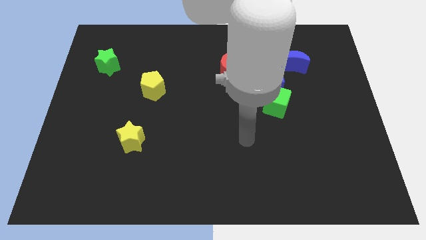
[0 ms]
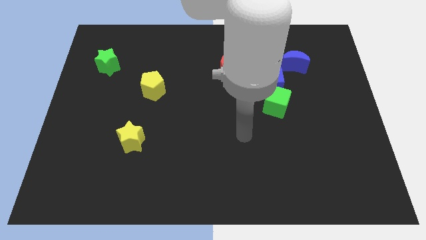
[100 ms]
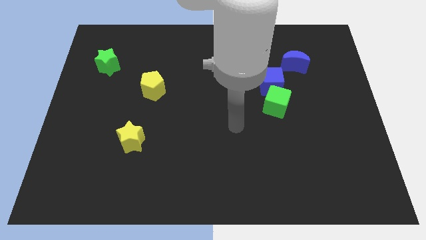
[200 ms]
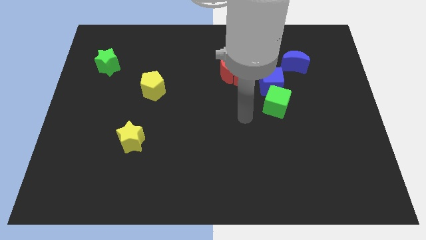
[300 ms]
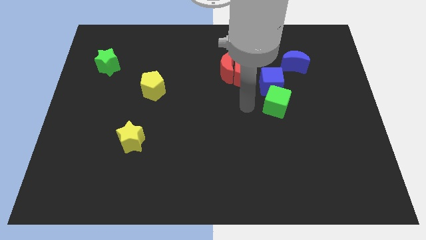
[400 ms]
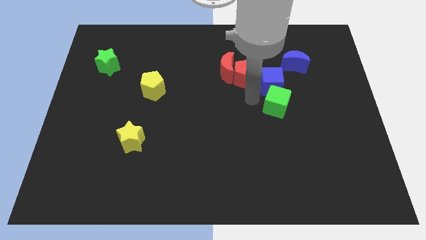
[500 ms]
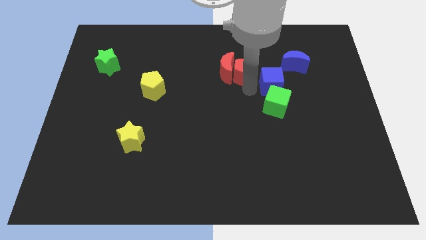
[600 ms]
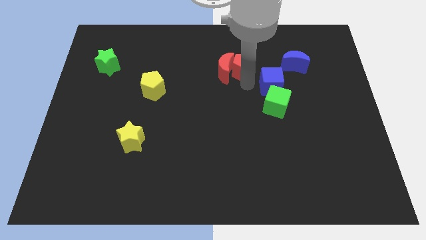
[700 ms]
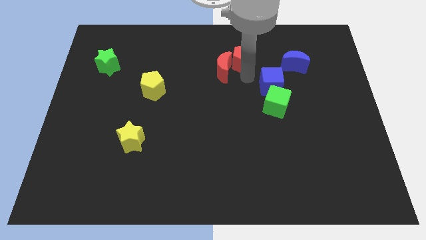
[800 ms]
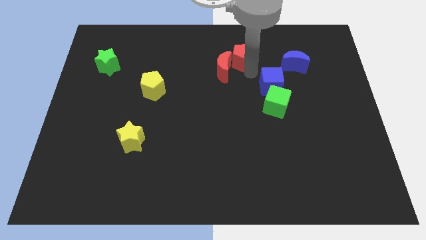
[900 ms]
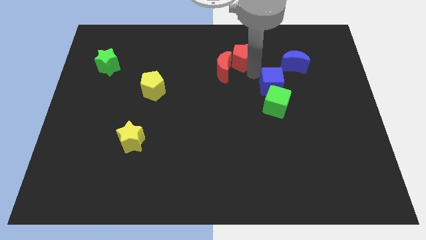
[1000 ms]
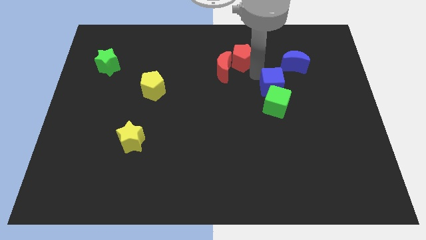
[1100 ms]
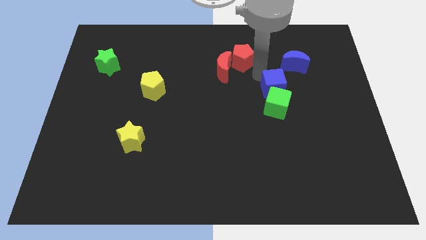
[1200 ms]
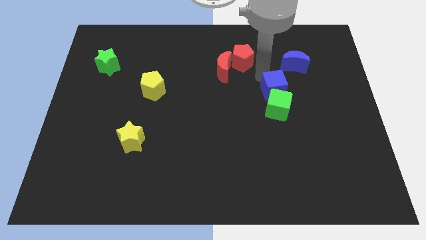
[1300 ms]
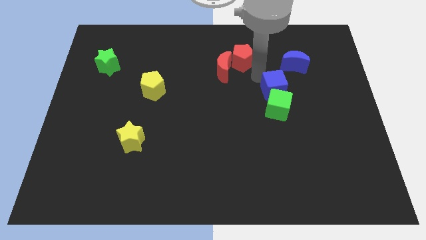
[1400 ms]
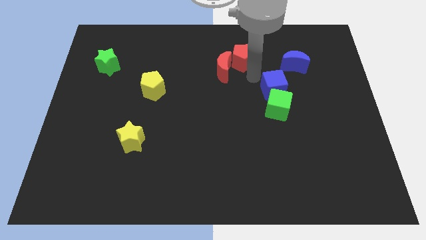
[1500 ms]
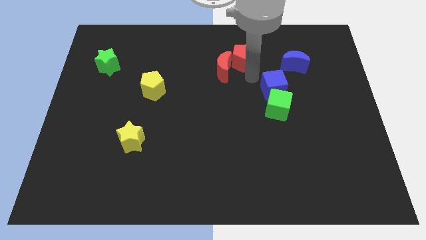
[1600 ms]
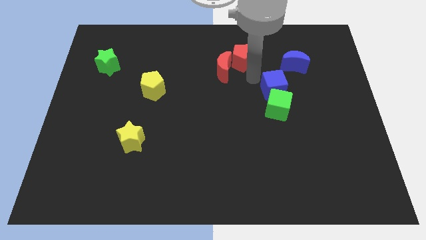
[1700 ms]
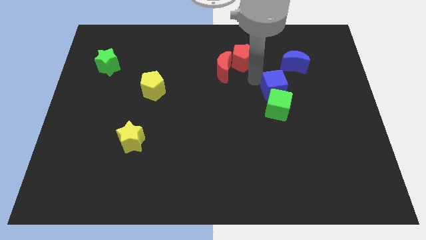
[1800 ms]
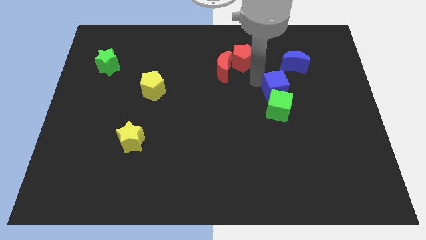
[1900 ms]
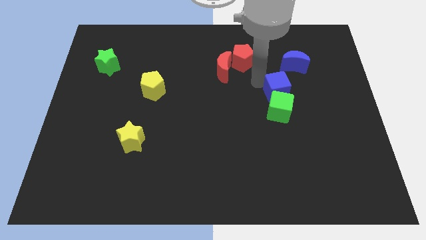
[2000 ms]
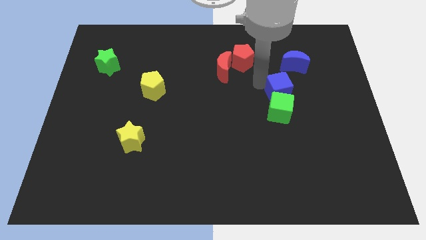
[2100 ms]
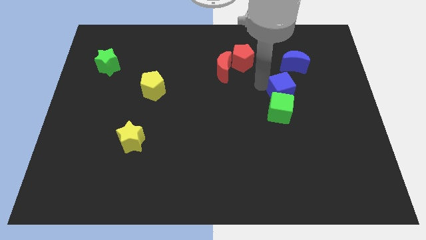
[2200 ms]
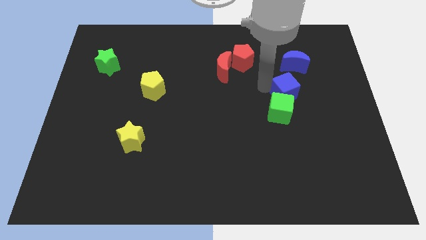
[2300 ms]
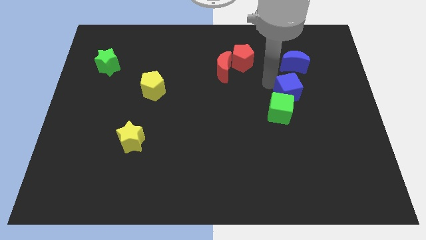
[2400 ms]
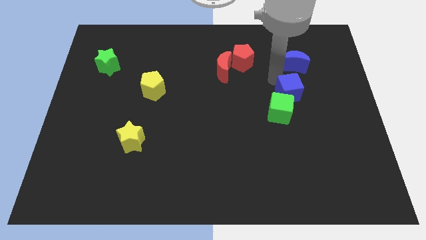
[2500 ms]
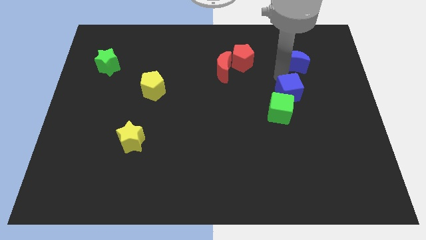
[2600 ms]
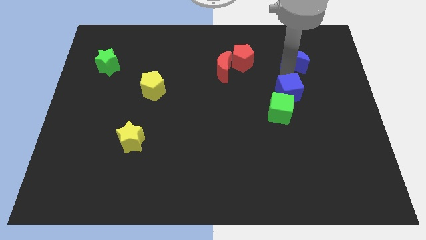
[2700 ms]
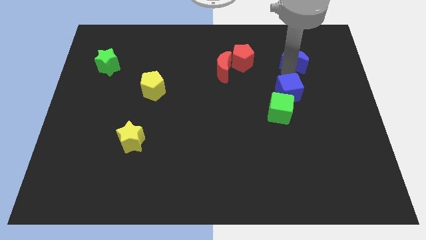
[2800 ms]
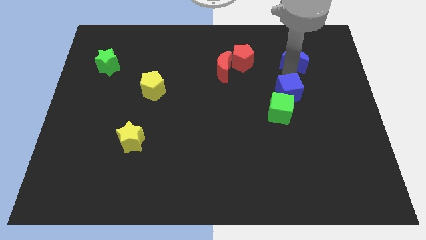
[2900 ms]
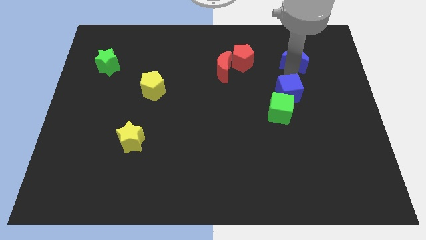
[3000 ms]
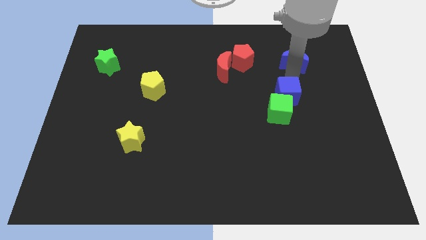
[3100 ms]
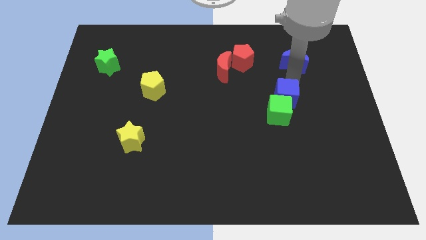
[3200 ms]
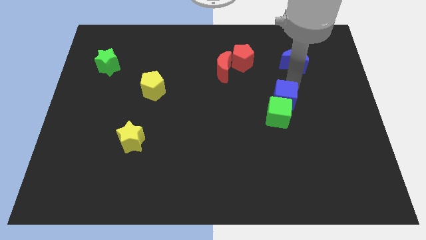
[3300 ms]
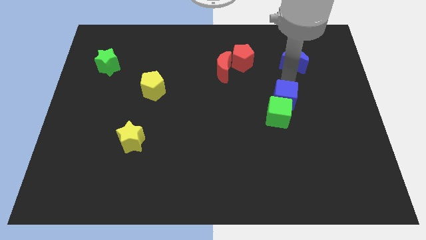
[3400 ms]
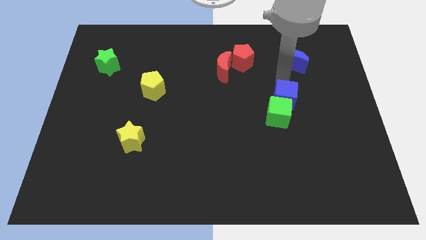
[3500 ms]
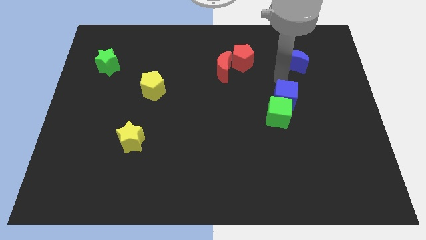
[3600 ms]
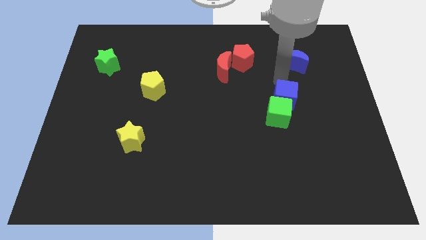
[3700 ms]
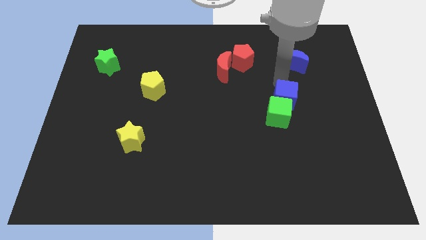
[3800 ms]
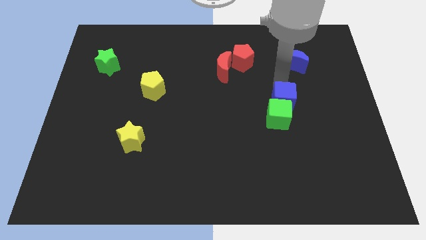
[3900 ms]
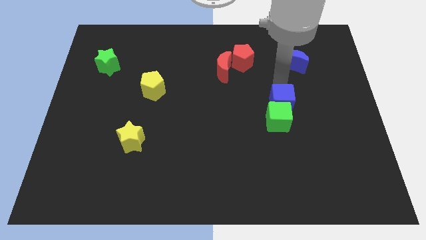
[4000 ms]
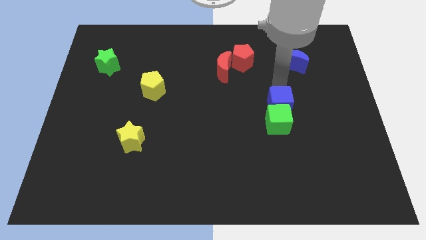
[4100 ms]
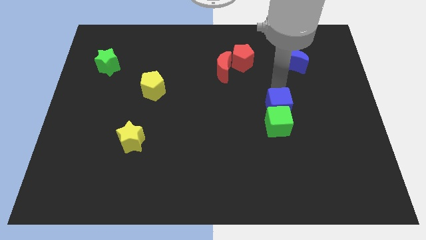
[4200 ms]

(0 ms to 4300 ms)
slide the blue cube somewhat down

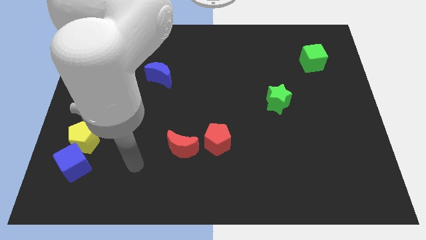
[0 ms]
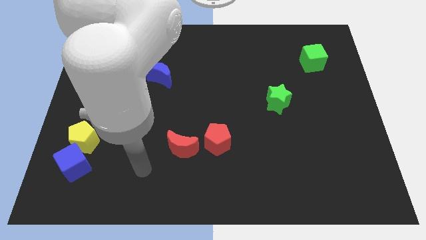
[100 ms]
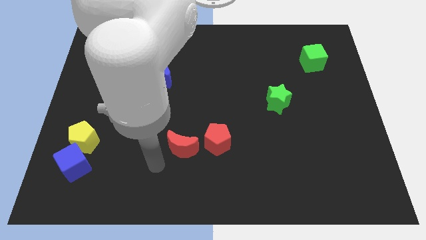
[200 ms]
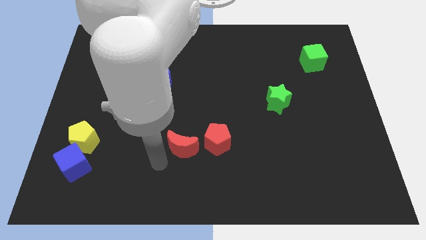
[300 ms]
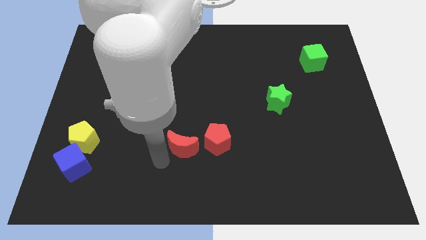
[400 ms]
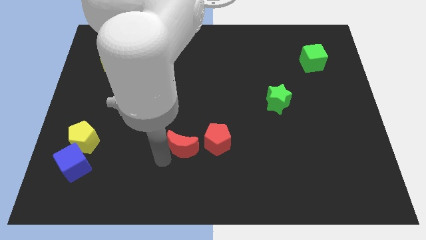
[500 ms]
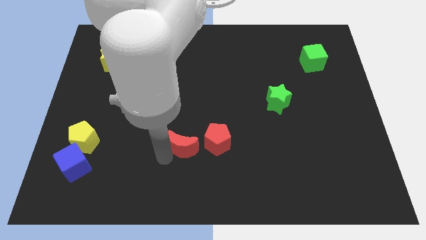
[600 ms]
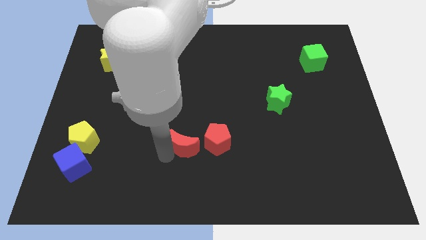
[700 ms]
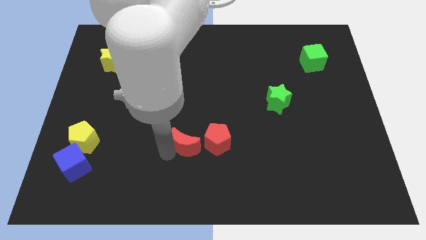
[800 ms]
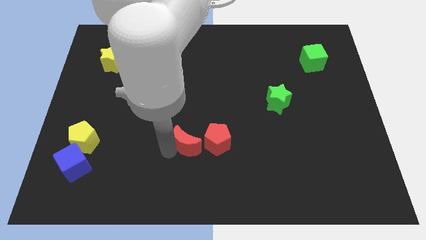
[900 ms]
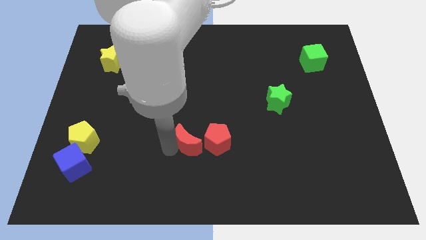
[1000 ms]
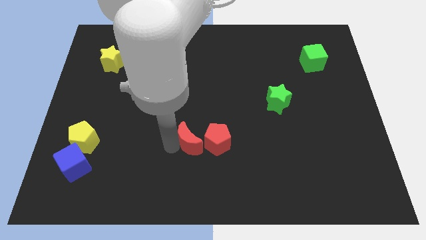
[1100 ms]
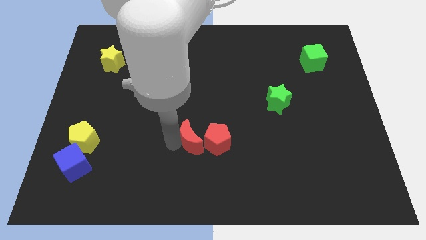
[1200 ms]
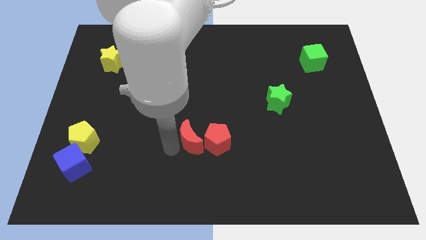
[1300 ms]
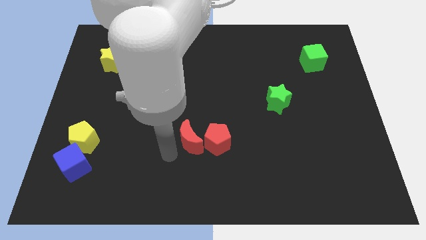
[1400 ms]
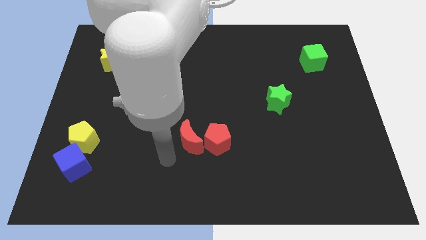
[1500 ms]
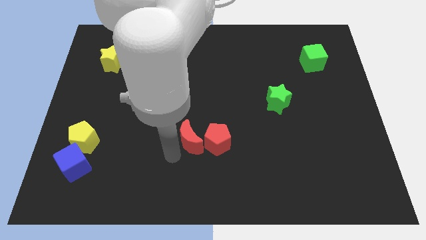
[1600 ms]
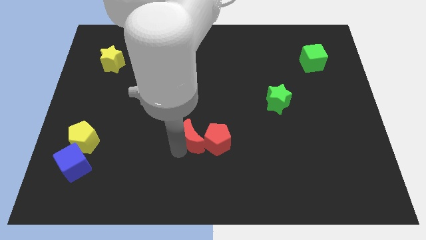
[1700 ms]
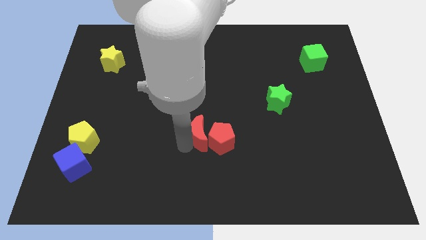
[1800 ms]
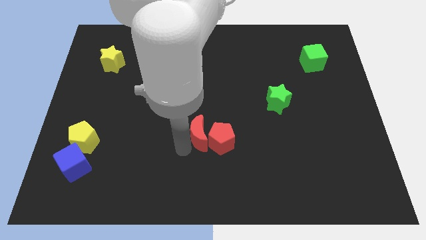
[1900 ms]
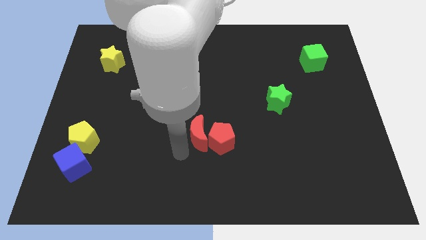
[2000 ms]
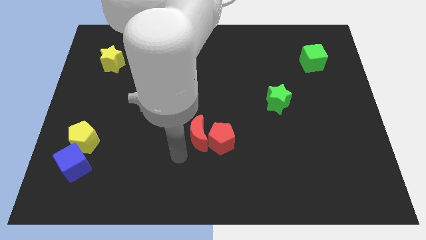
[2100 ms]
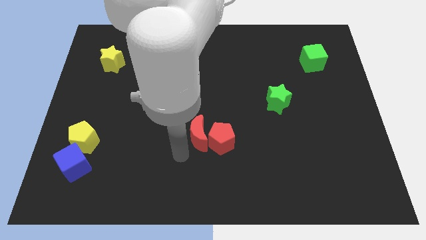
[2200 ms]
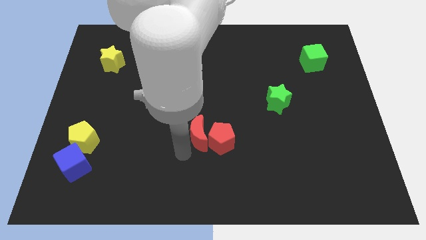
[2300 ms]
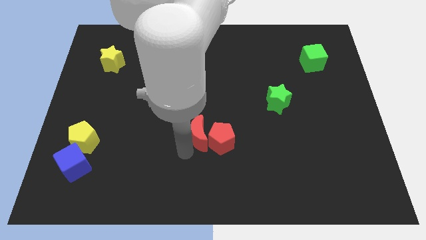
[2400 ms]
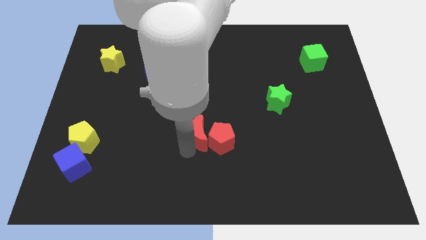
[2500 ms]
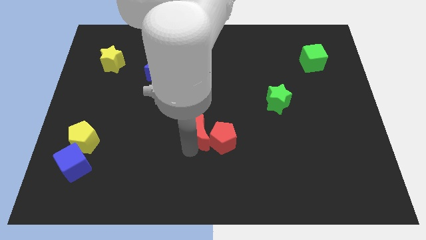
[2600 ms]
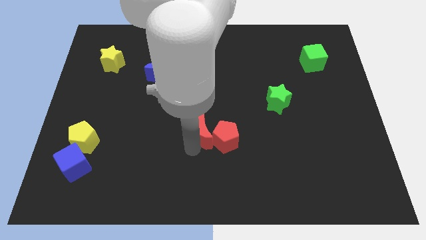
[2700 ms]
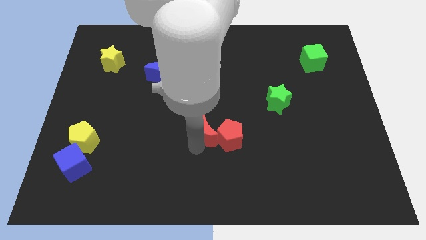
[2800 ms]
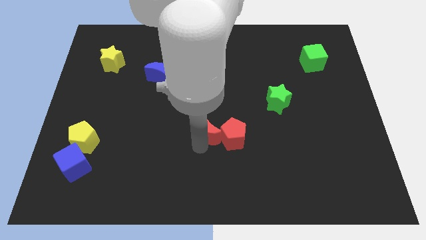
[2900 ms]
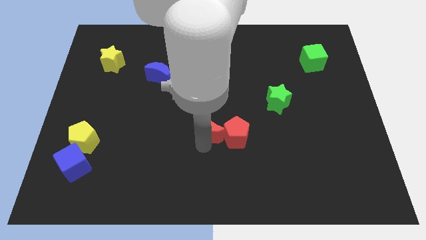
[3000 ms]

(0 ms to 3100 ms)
slide the red moon slightly upwards and to the right

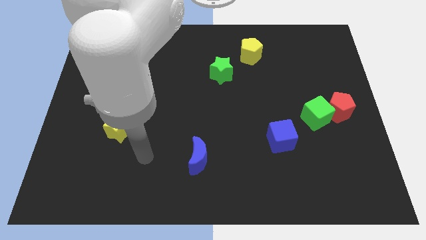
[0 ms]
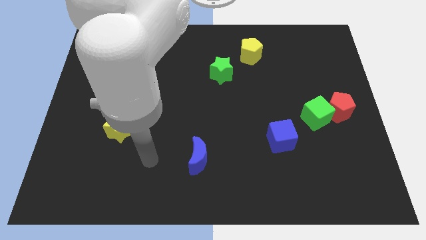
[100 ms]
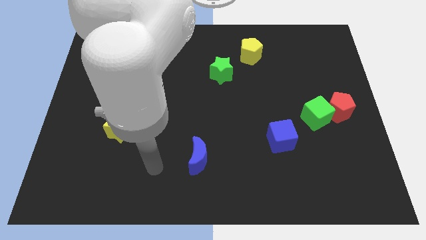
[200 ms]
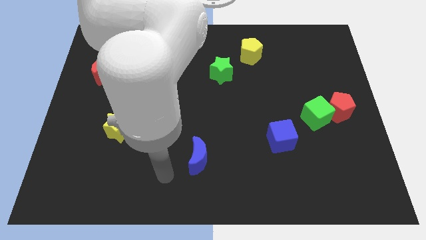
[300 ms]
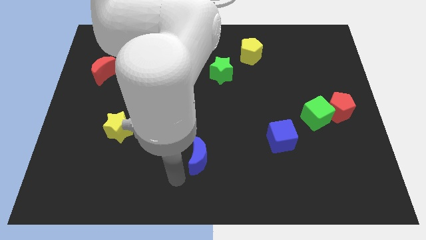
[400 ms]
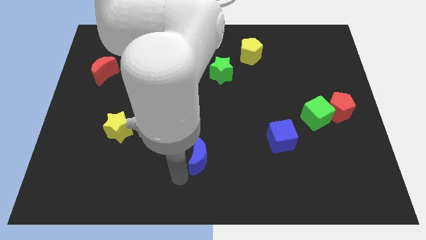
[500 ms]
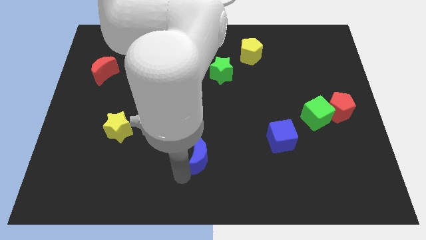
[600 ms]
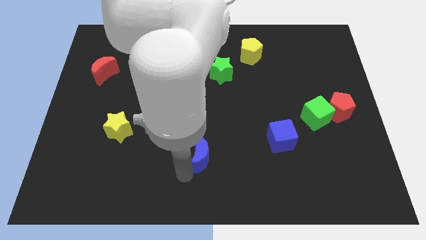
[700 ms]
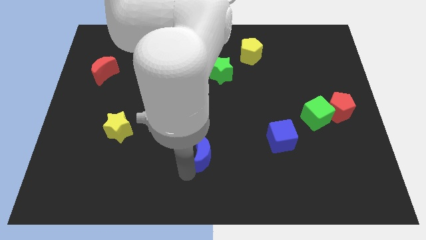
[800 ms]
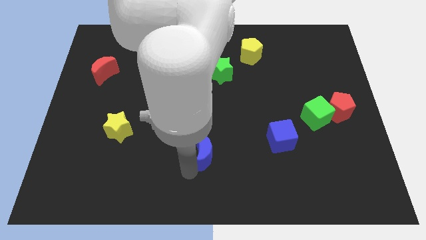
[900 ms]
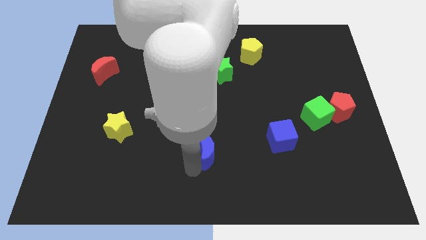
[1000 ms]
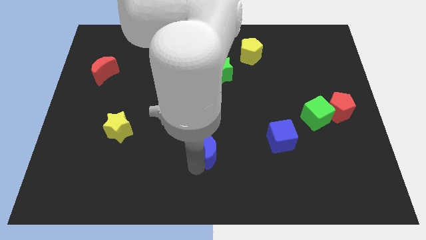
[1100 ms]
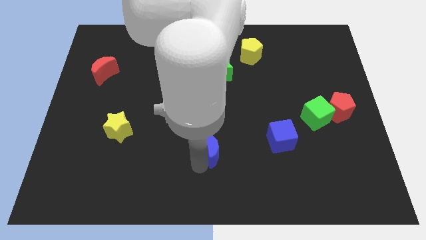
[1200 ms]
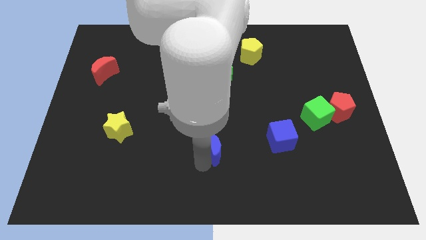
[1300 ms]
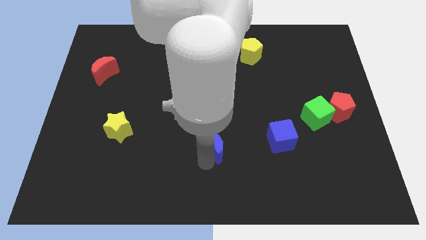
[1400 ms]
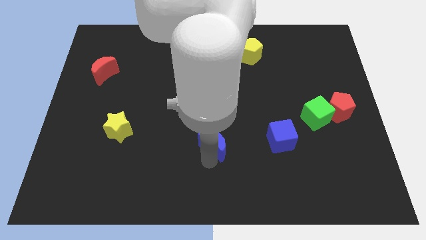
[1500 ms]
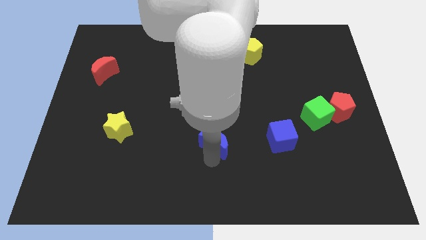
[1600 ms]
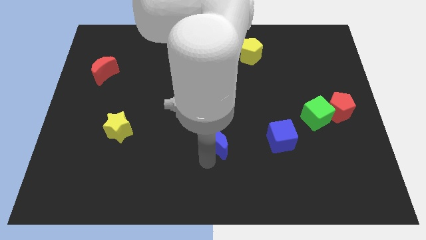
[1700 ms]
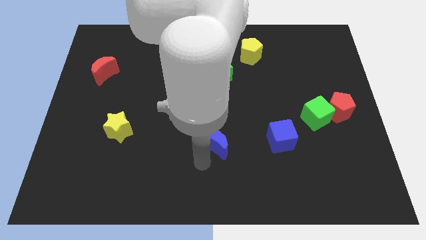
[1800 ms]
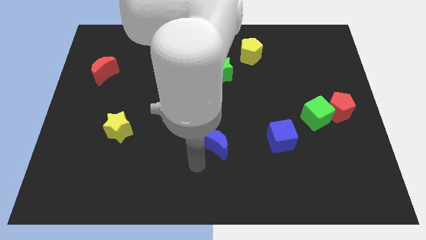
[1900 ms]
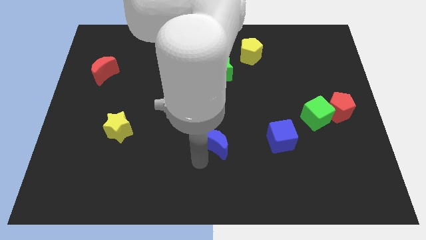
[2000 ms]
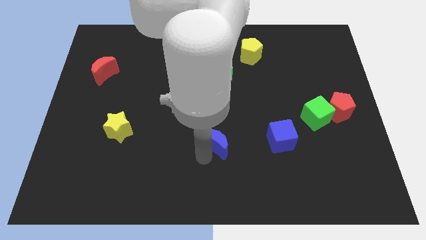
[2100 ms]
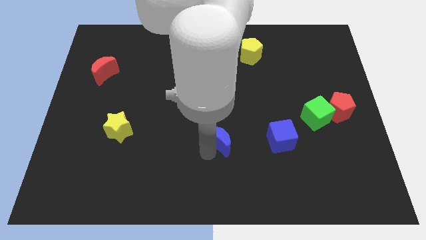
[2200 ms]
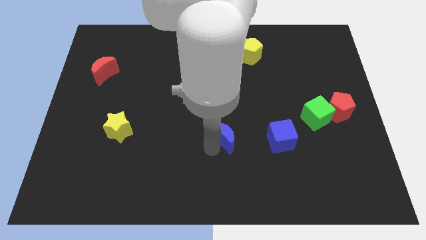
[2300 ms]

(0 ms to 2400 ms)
slightly push the blue moon upwards and to the right
